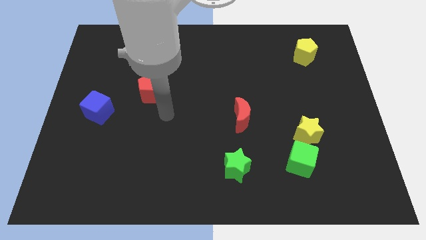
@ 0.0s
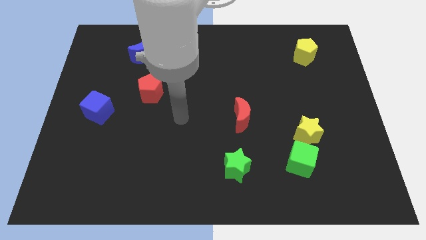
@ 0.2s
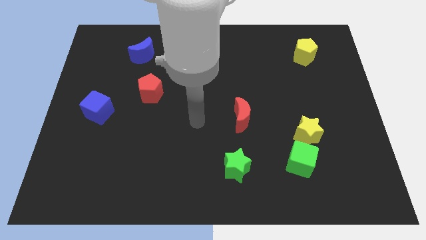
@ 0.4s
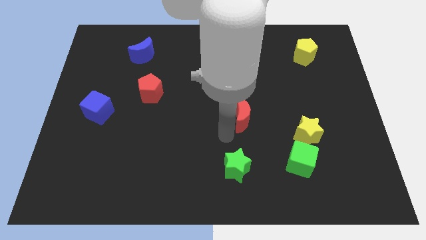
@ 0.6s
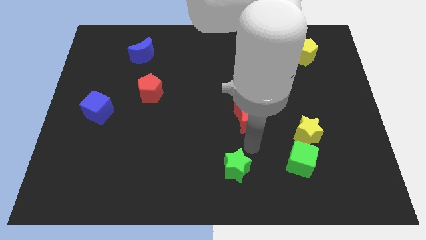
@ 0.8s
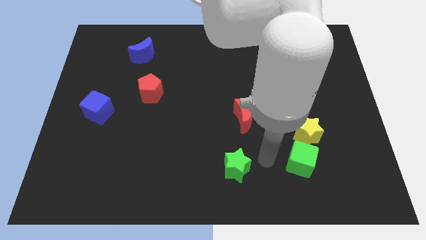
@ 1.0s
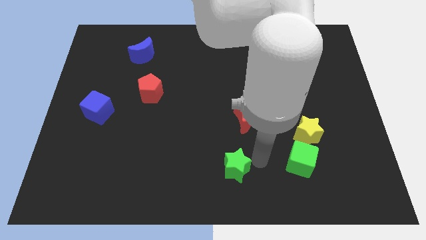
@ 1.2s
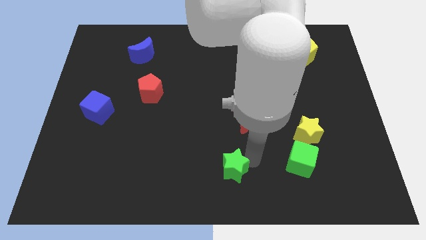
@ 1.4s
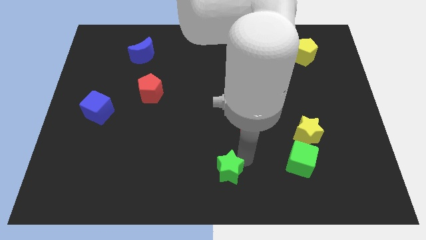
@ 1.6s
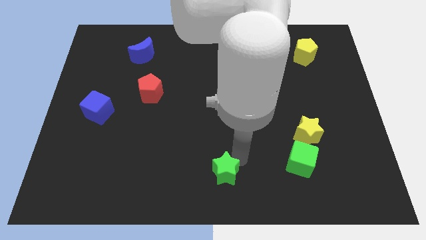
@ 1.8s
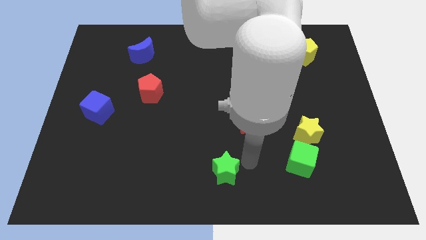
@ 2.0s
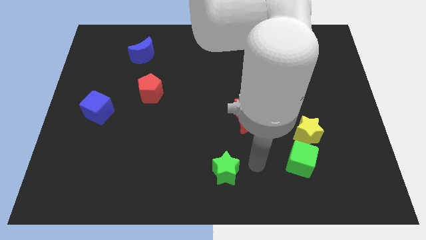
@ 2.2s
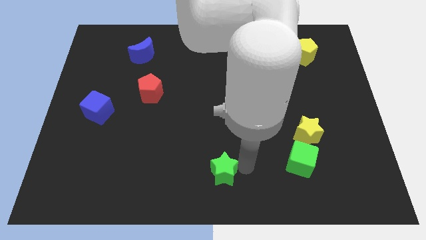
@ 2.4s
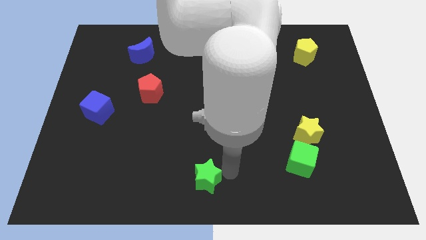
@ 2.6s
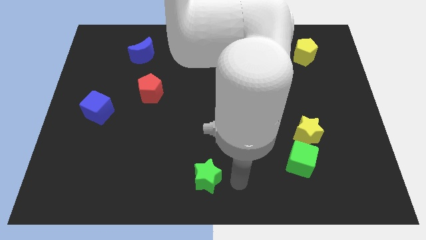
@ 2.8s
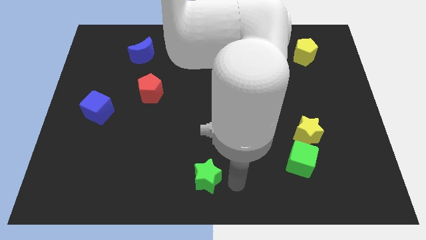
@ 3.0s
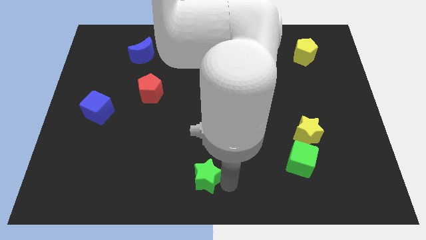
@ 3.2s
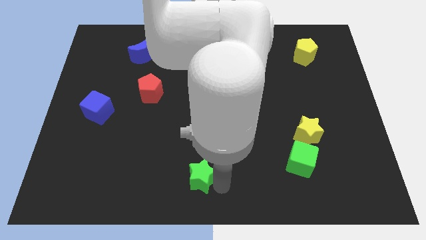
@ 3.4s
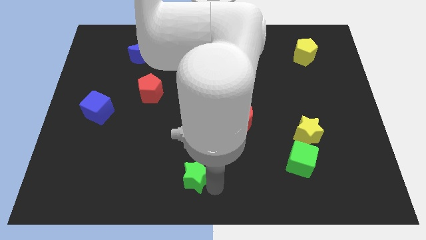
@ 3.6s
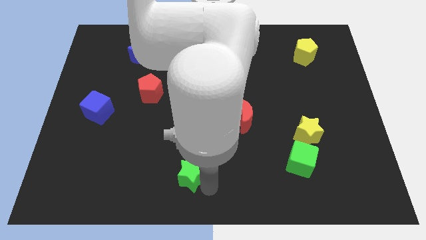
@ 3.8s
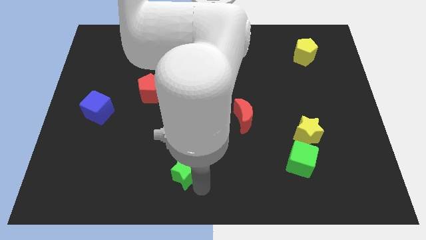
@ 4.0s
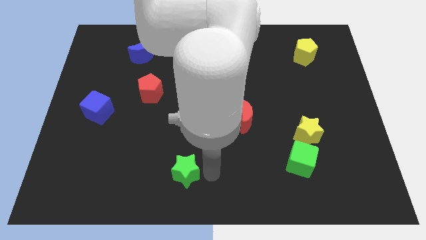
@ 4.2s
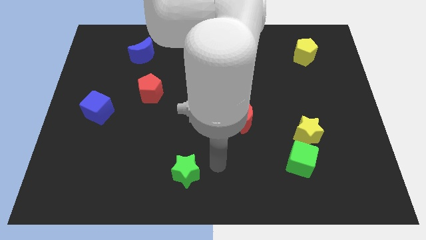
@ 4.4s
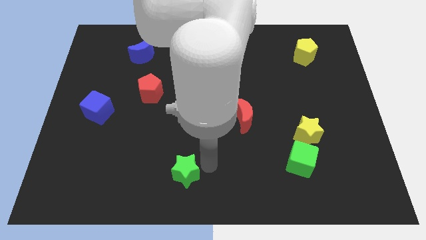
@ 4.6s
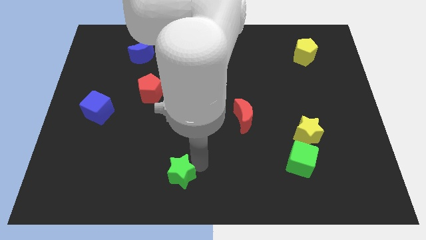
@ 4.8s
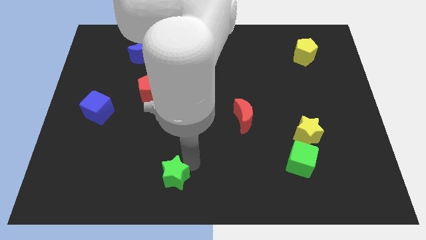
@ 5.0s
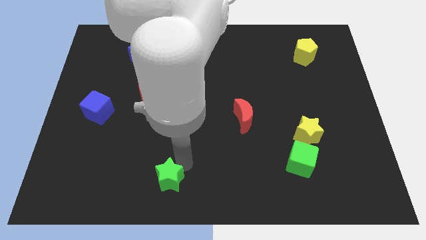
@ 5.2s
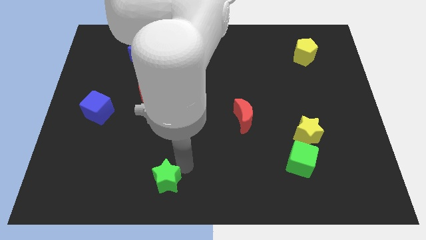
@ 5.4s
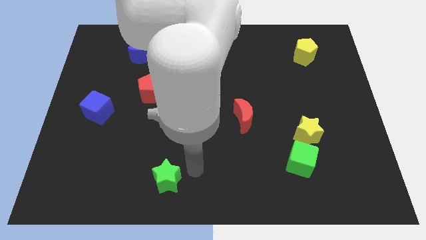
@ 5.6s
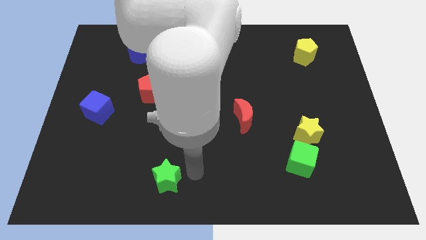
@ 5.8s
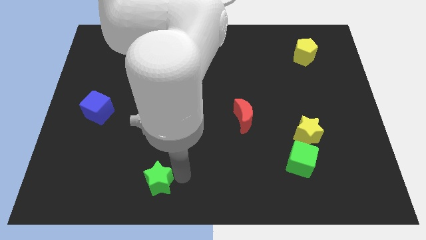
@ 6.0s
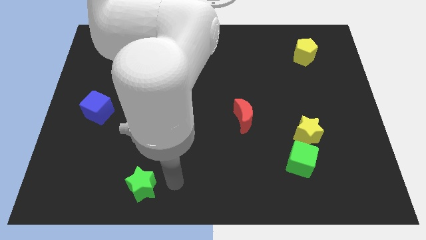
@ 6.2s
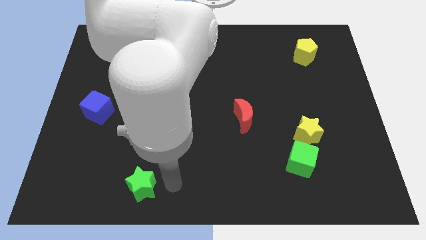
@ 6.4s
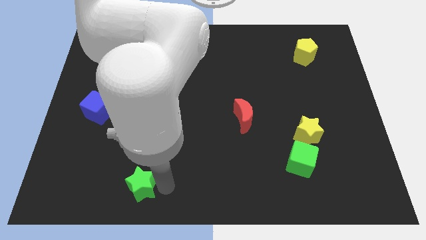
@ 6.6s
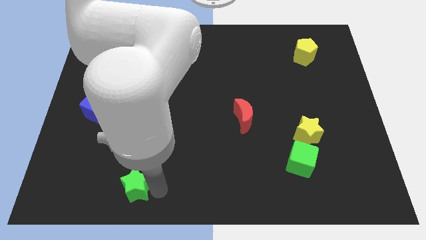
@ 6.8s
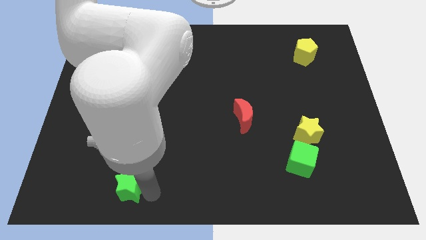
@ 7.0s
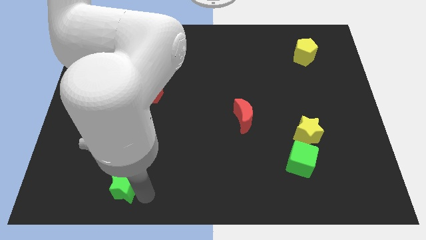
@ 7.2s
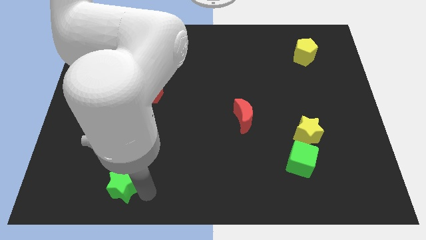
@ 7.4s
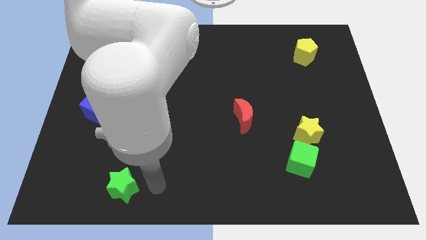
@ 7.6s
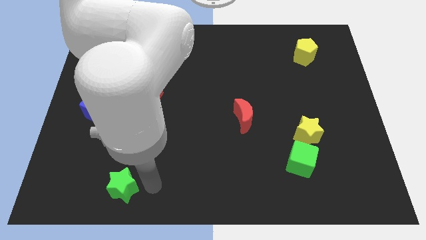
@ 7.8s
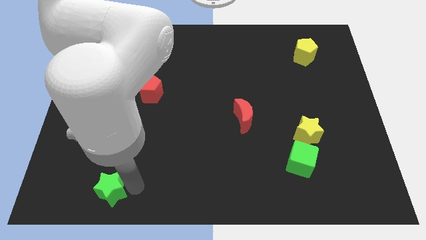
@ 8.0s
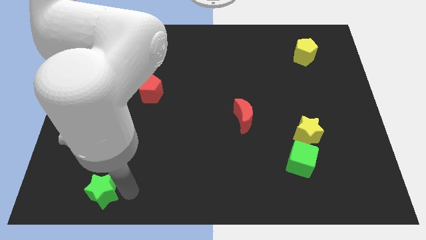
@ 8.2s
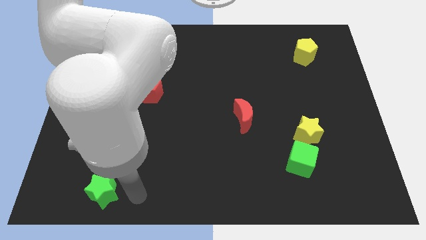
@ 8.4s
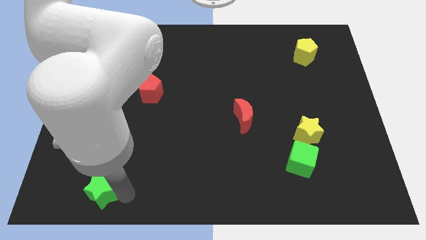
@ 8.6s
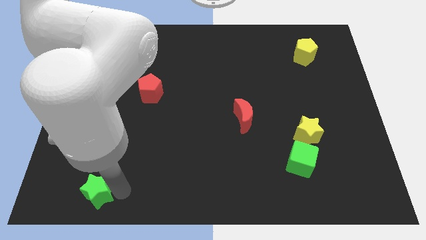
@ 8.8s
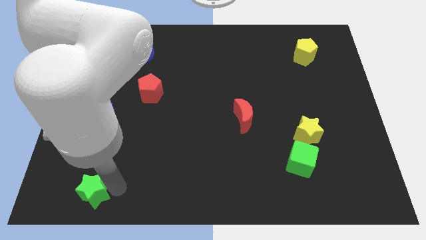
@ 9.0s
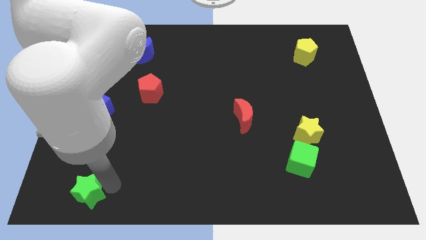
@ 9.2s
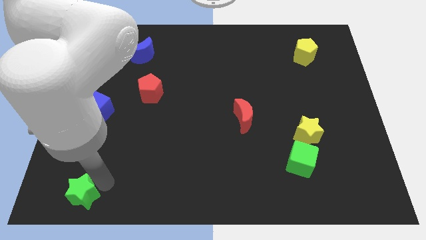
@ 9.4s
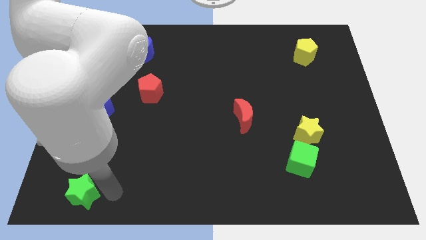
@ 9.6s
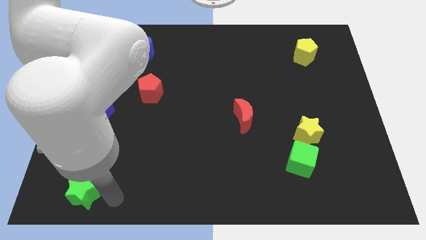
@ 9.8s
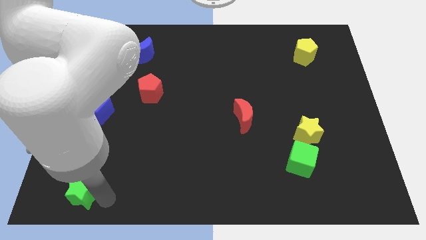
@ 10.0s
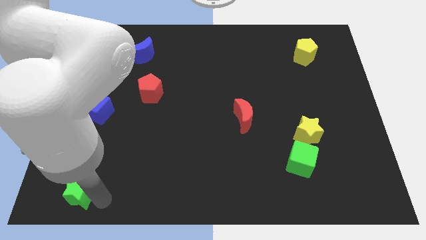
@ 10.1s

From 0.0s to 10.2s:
move the green star to the lower left corner

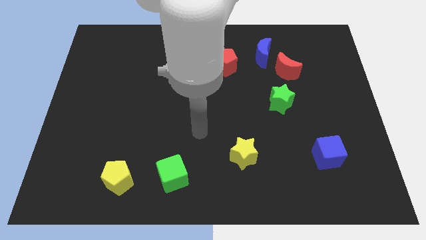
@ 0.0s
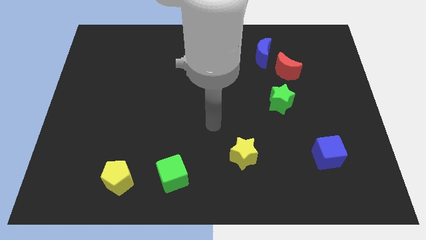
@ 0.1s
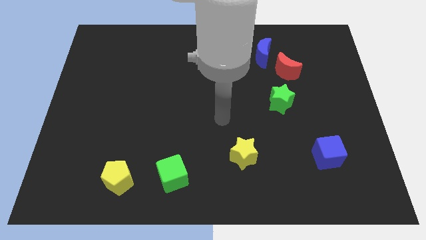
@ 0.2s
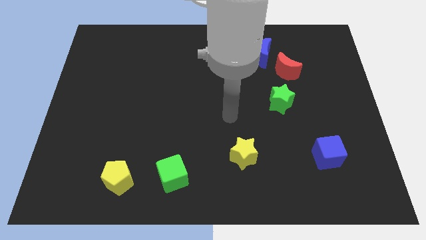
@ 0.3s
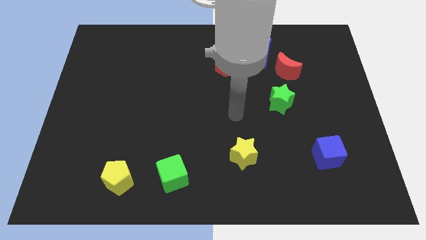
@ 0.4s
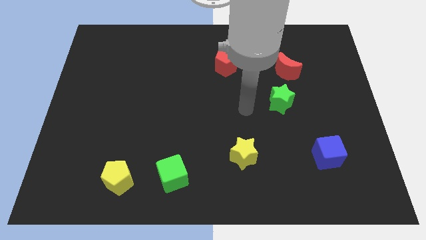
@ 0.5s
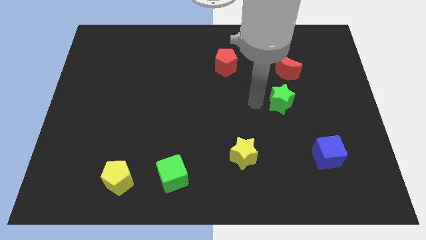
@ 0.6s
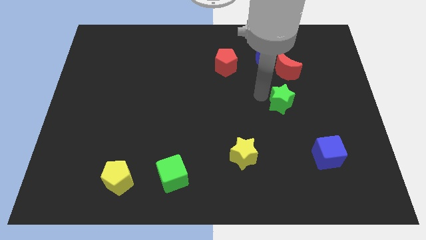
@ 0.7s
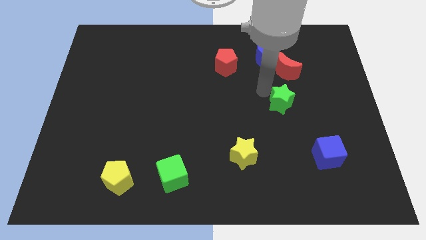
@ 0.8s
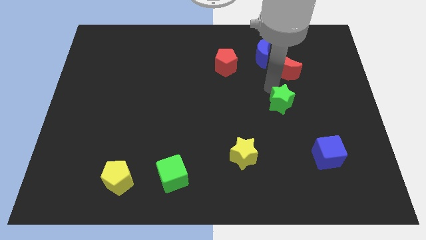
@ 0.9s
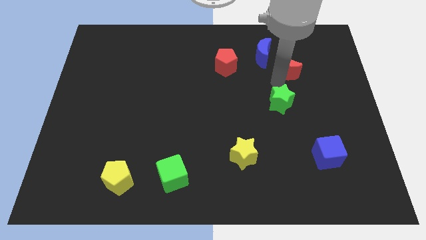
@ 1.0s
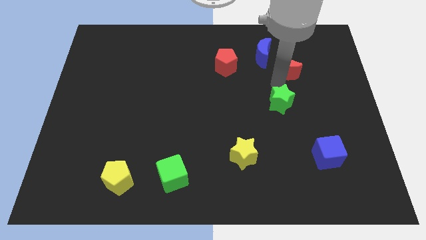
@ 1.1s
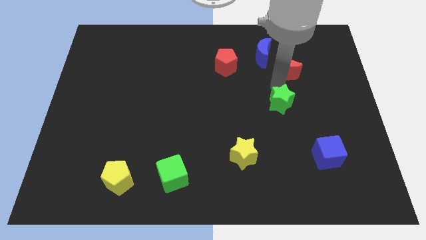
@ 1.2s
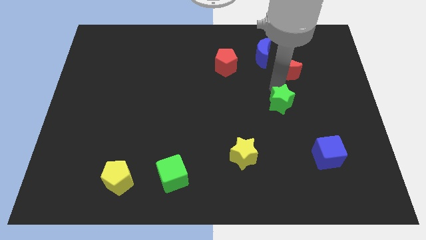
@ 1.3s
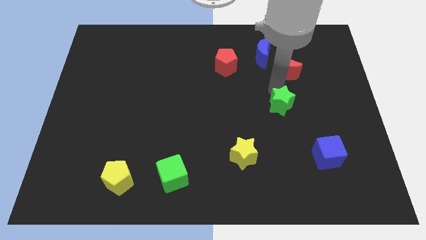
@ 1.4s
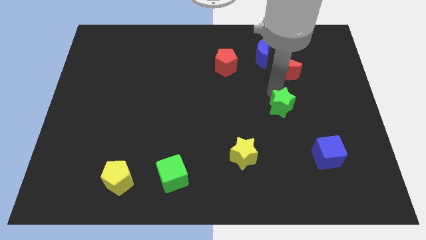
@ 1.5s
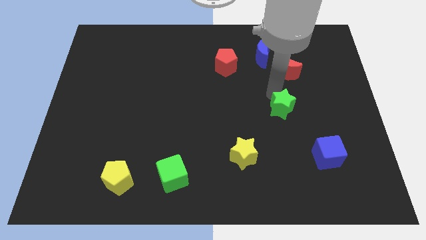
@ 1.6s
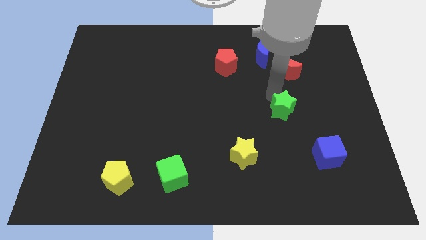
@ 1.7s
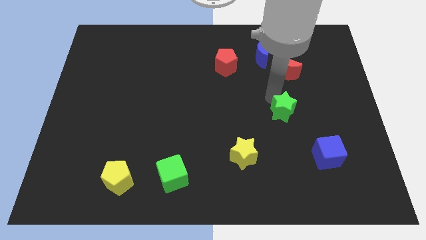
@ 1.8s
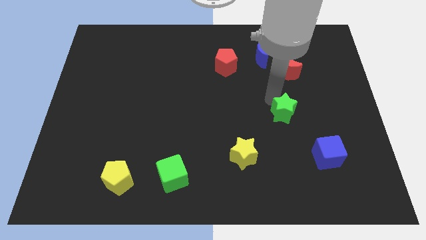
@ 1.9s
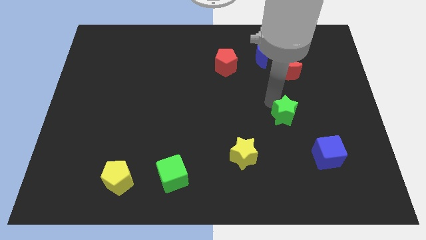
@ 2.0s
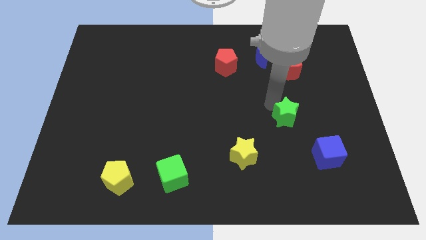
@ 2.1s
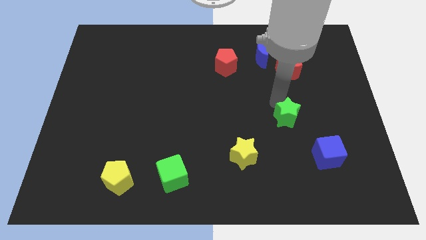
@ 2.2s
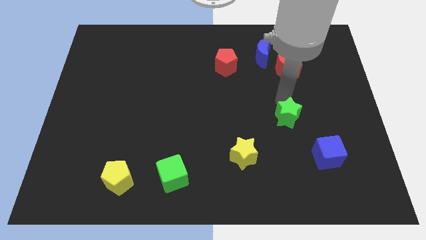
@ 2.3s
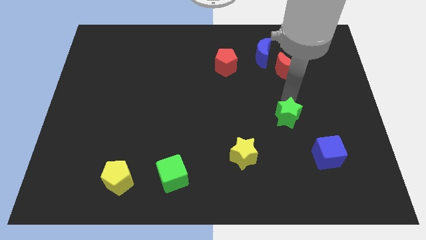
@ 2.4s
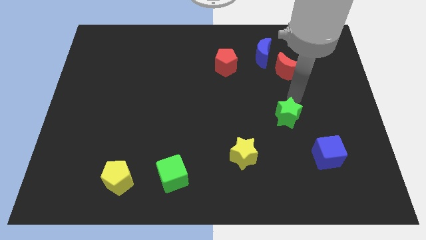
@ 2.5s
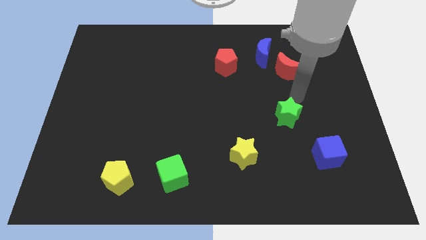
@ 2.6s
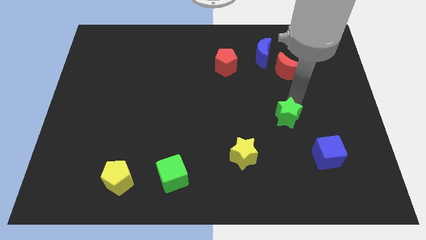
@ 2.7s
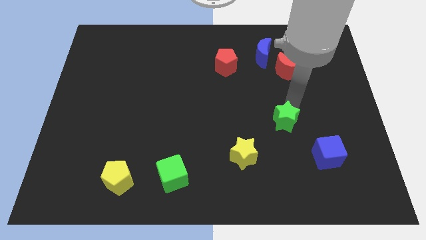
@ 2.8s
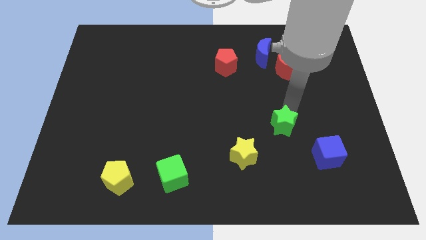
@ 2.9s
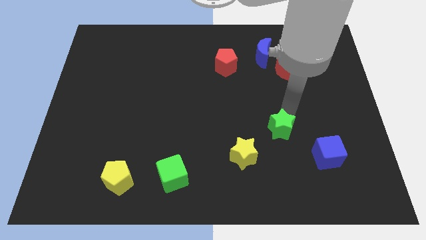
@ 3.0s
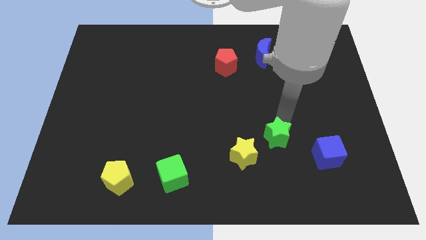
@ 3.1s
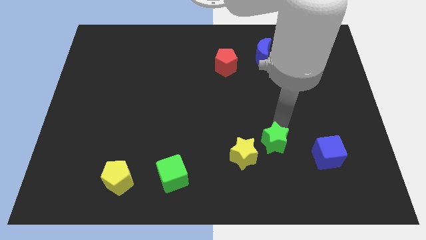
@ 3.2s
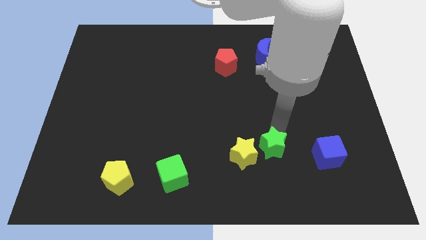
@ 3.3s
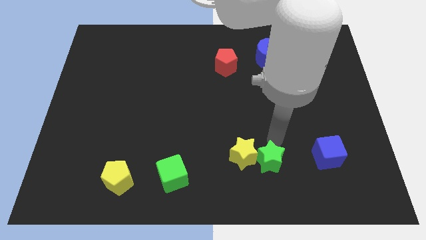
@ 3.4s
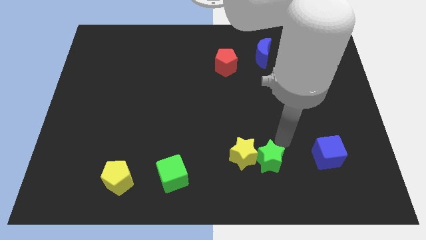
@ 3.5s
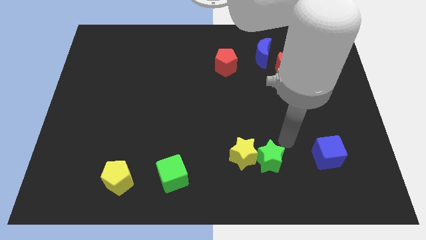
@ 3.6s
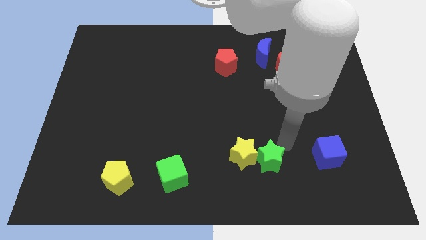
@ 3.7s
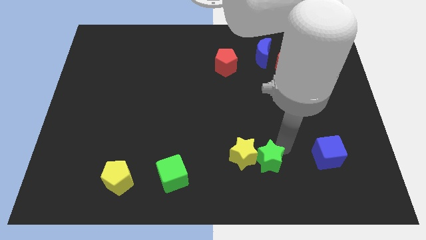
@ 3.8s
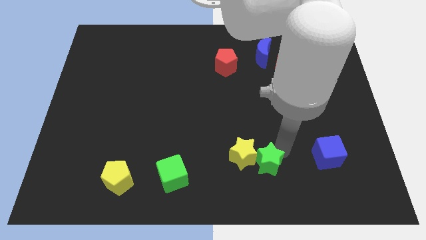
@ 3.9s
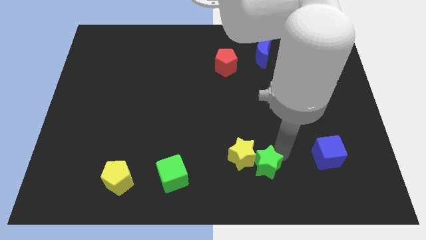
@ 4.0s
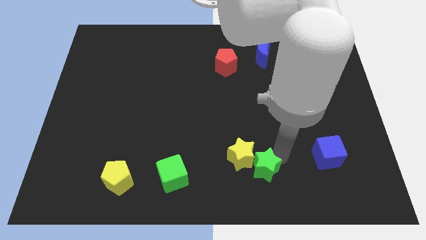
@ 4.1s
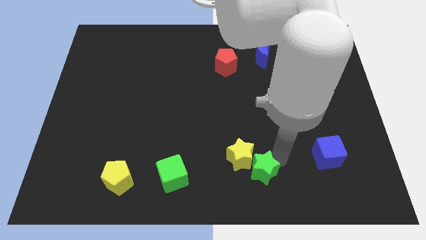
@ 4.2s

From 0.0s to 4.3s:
put the green star to the bottom
